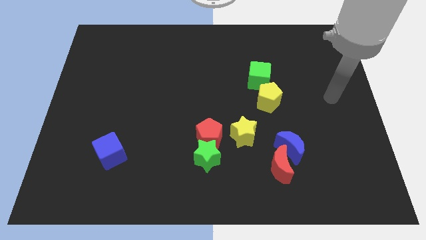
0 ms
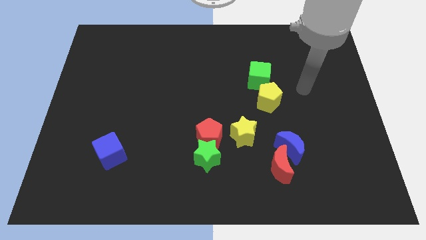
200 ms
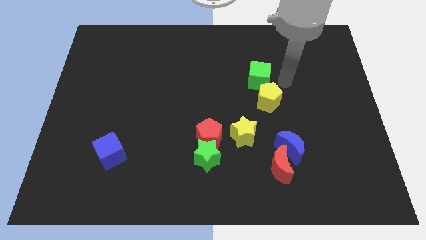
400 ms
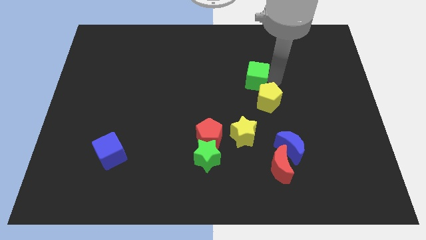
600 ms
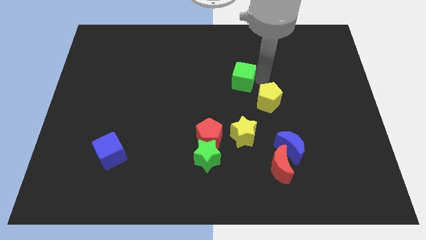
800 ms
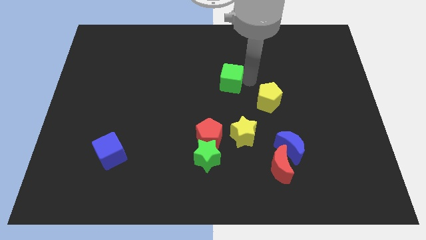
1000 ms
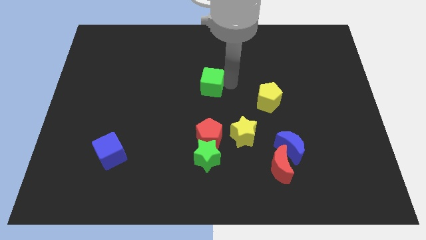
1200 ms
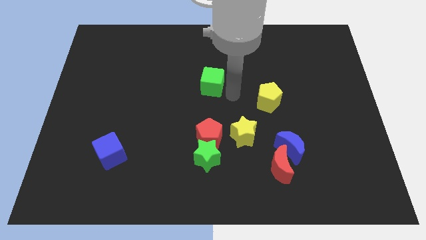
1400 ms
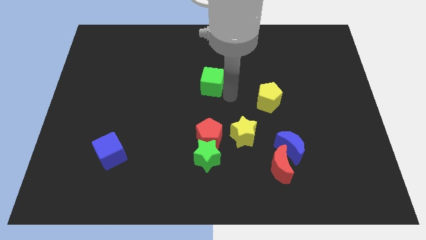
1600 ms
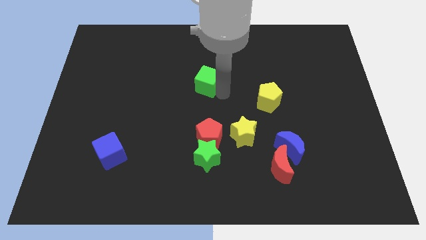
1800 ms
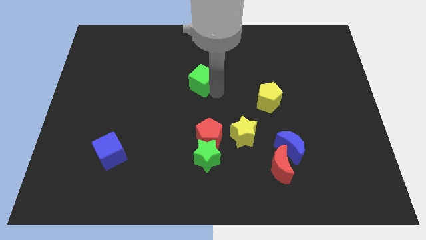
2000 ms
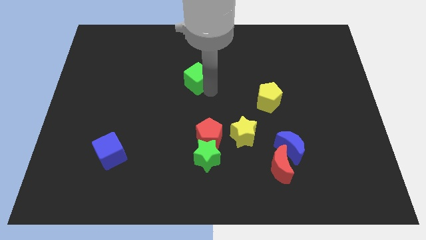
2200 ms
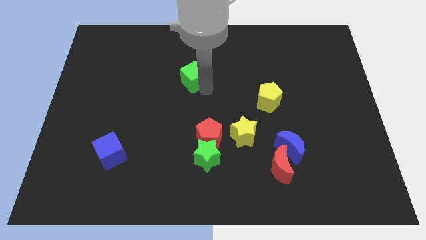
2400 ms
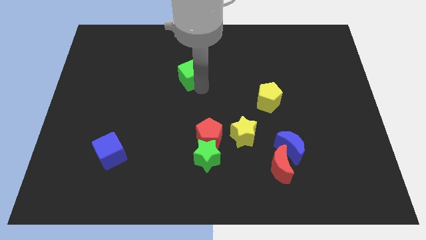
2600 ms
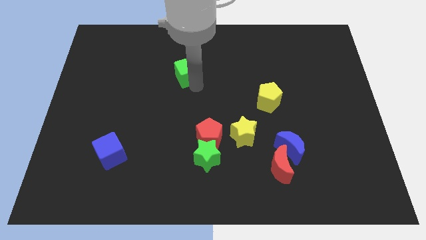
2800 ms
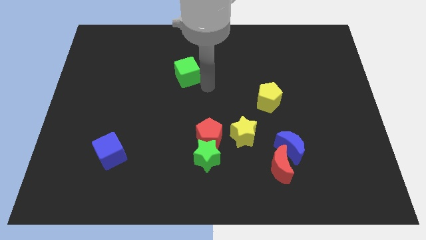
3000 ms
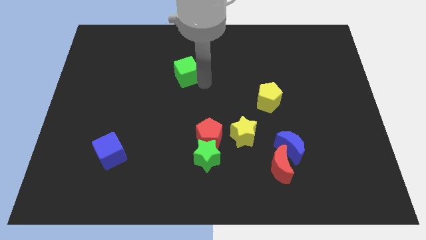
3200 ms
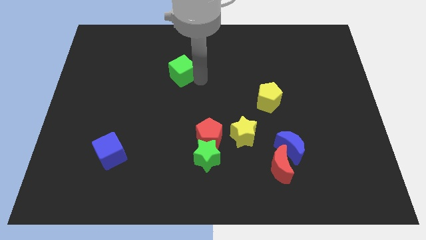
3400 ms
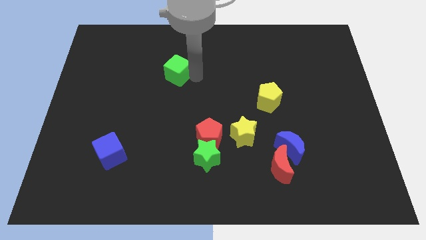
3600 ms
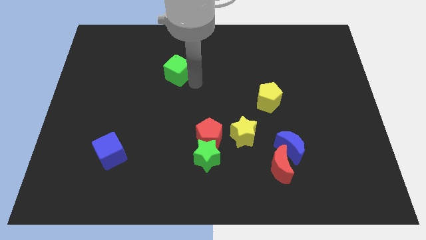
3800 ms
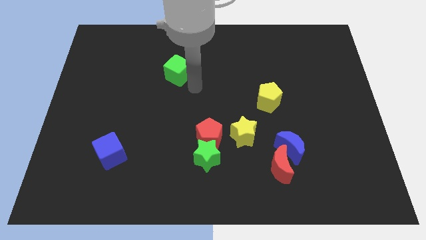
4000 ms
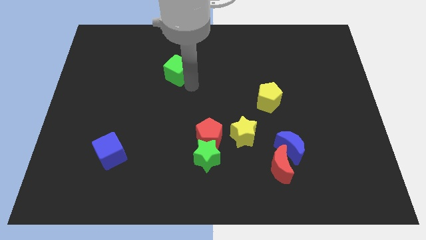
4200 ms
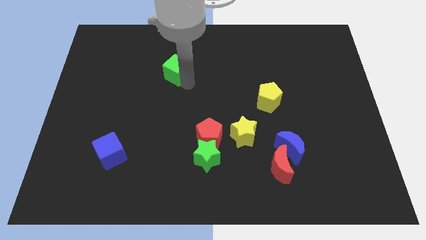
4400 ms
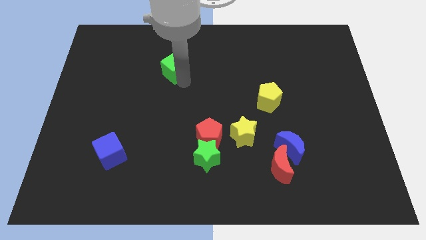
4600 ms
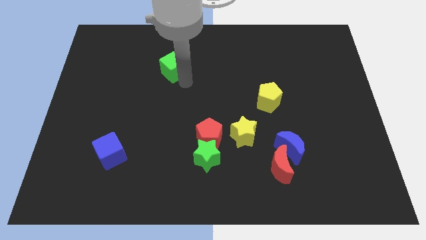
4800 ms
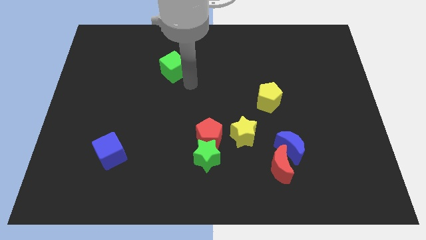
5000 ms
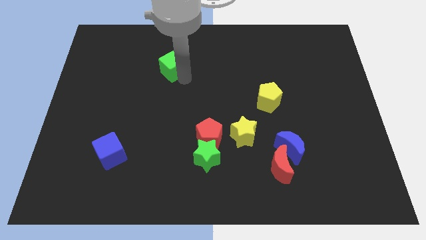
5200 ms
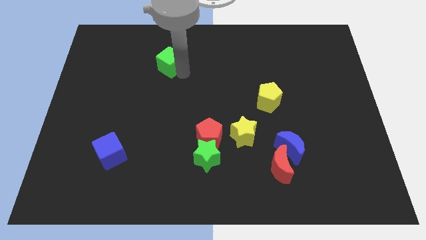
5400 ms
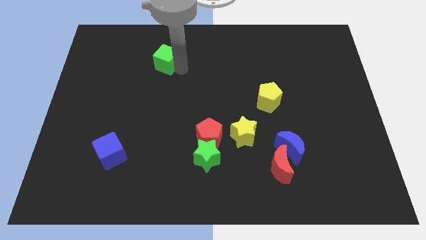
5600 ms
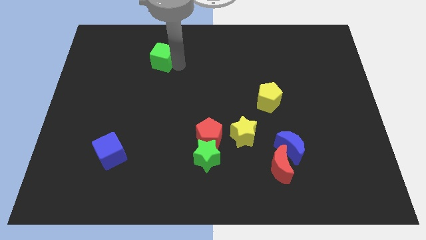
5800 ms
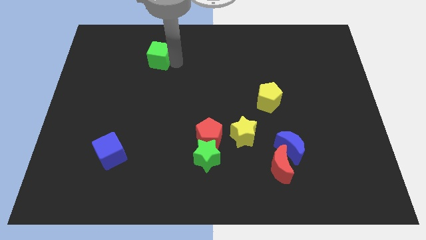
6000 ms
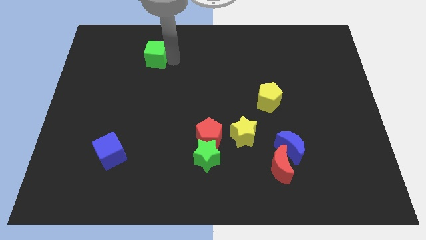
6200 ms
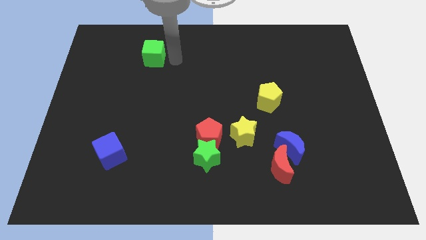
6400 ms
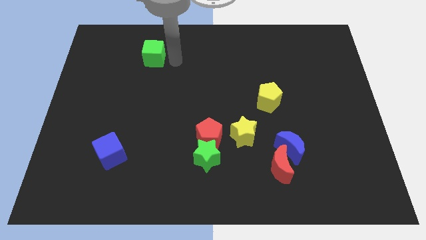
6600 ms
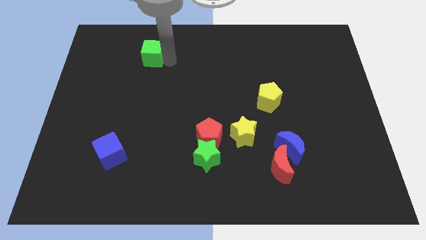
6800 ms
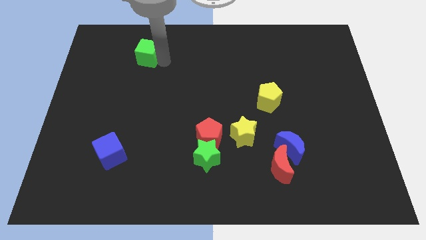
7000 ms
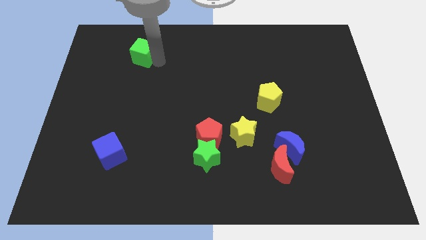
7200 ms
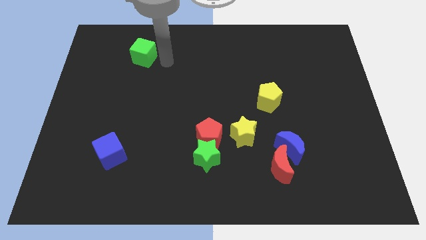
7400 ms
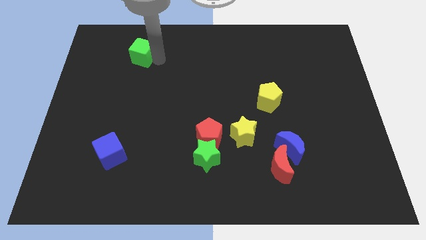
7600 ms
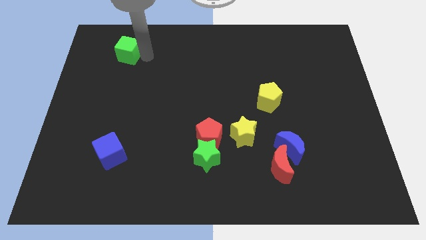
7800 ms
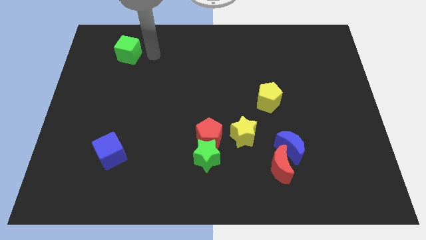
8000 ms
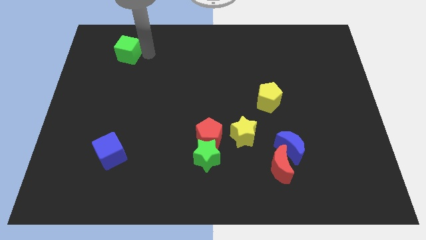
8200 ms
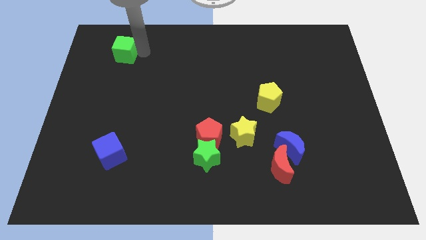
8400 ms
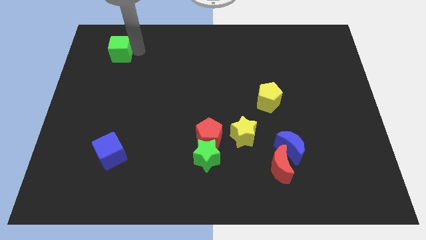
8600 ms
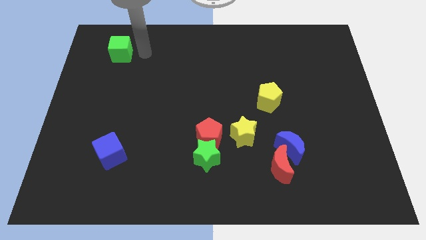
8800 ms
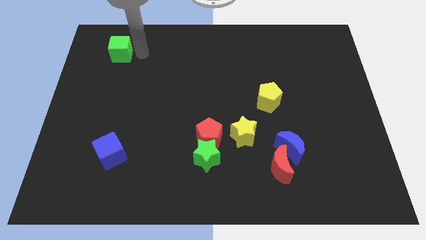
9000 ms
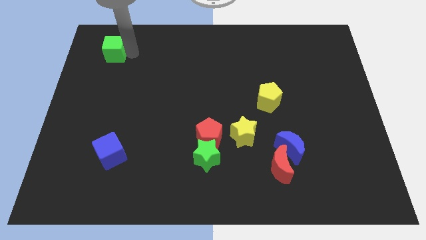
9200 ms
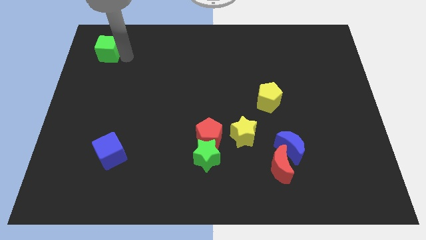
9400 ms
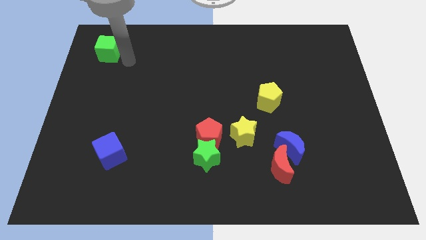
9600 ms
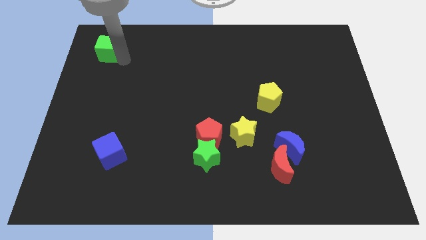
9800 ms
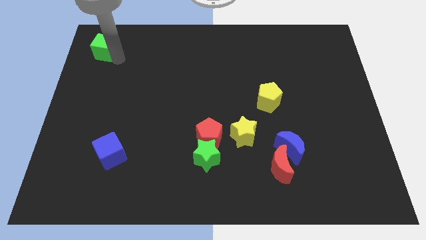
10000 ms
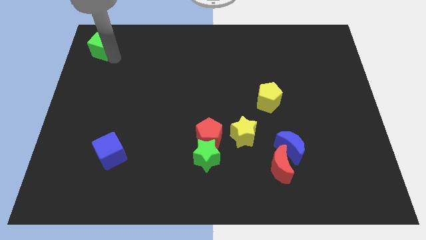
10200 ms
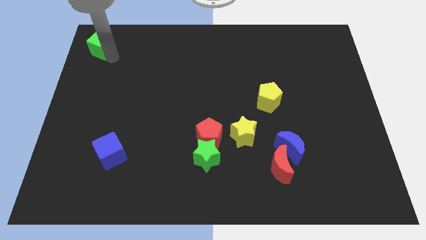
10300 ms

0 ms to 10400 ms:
put the green cube to the top left of the board

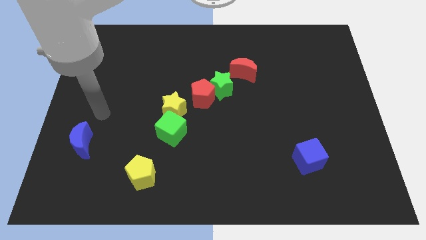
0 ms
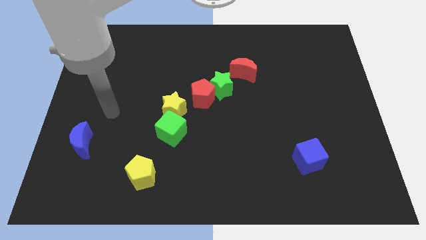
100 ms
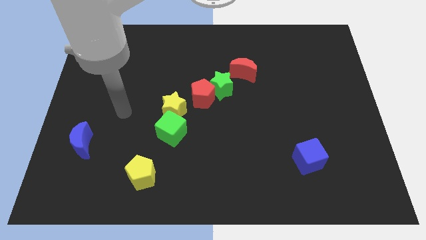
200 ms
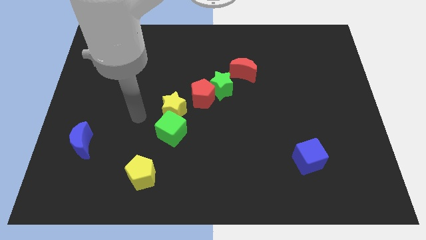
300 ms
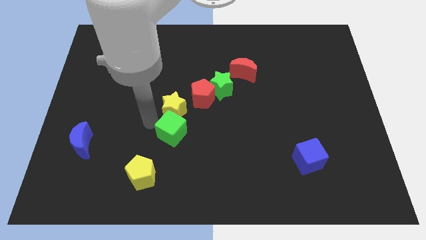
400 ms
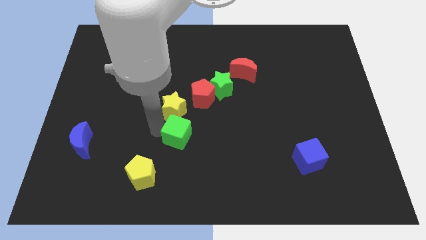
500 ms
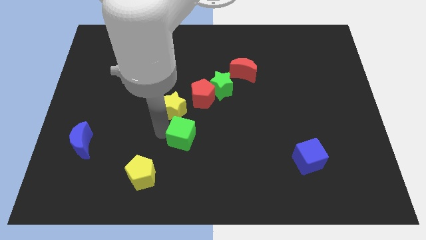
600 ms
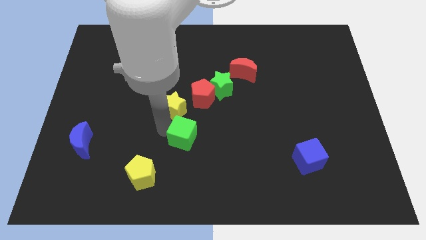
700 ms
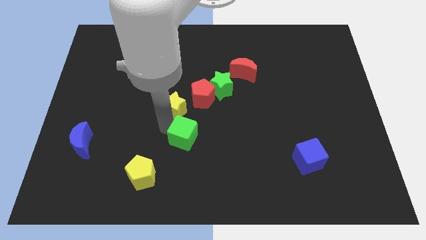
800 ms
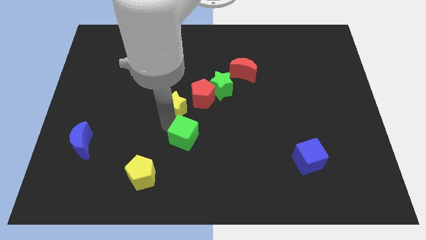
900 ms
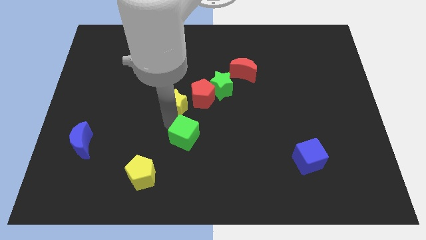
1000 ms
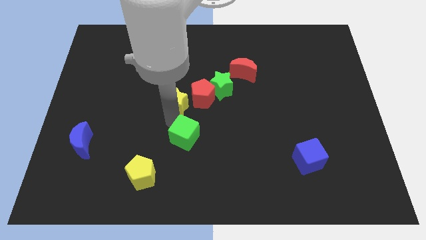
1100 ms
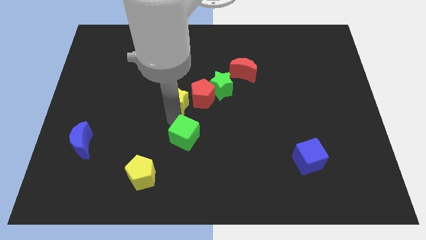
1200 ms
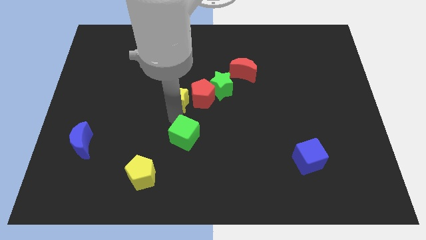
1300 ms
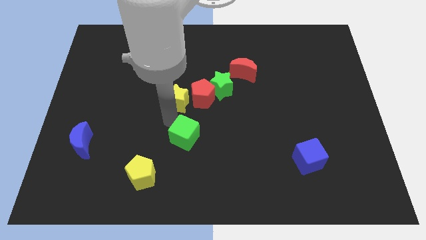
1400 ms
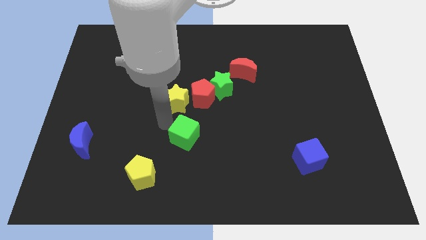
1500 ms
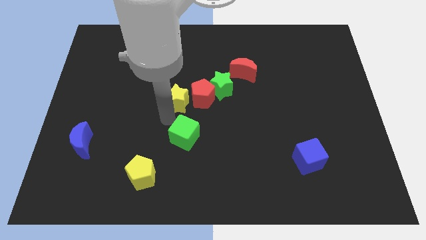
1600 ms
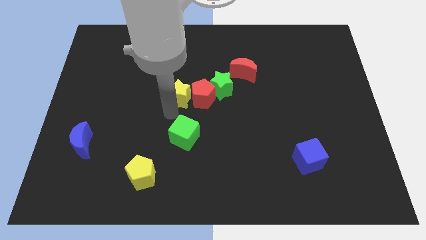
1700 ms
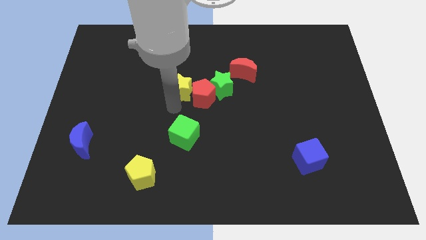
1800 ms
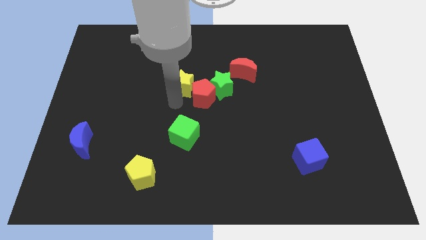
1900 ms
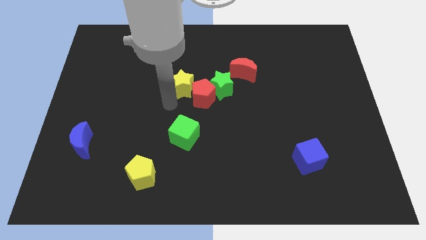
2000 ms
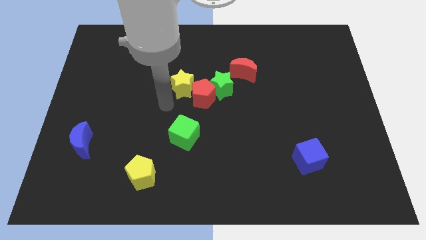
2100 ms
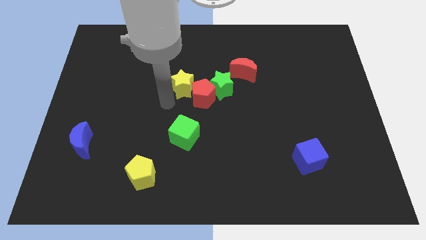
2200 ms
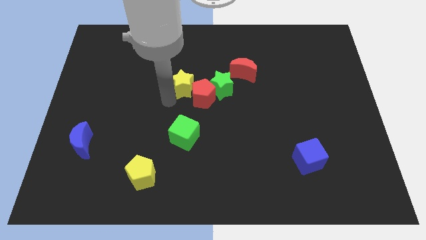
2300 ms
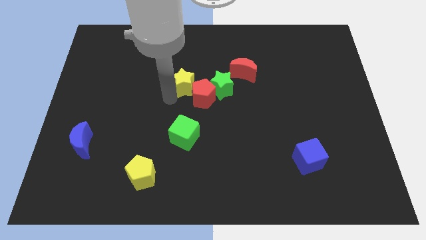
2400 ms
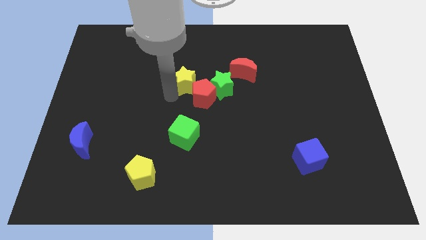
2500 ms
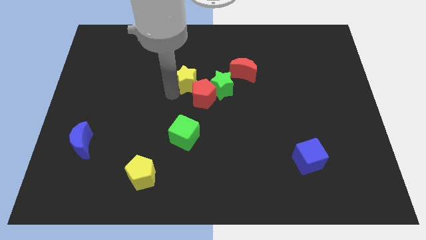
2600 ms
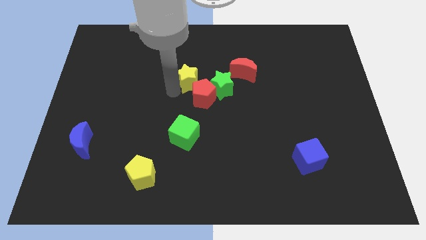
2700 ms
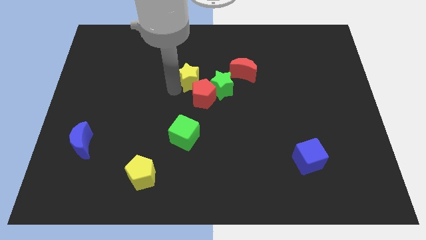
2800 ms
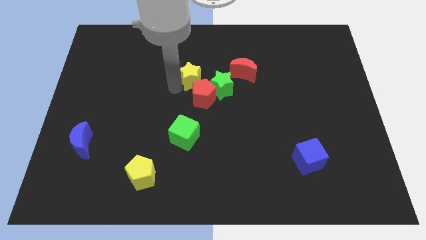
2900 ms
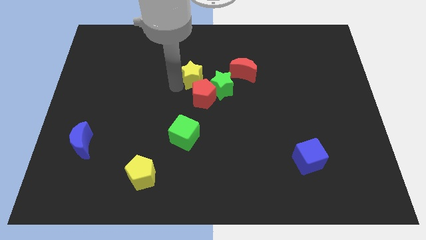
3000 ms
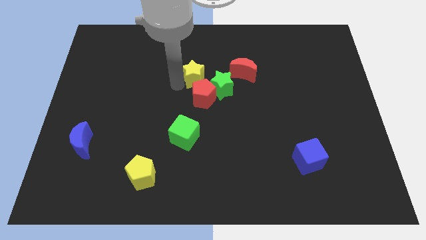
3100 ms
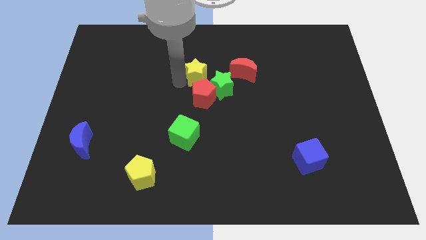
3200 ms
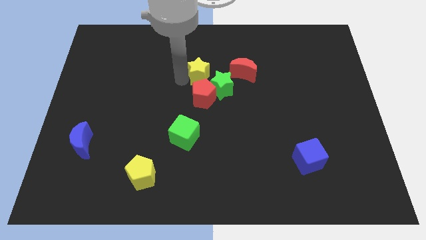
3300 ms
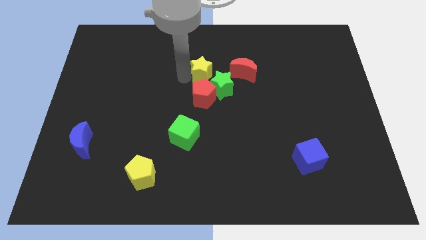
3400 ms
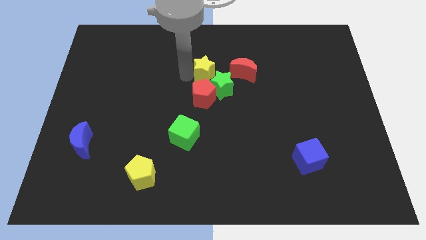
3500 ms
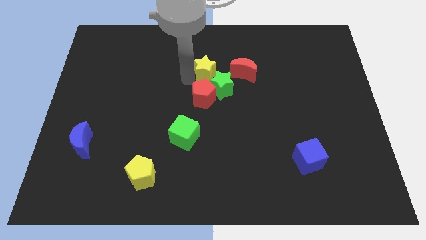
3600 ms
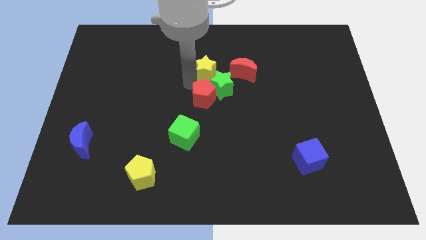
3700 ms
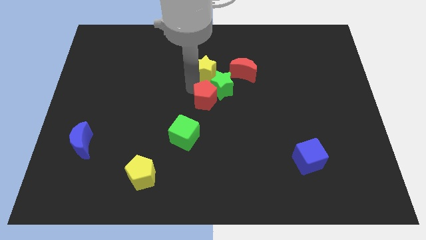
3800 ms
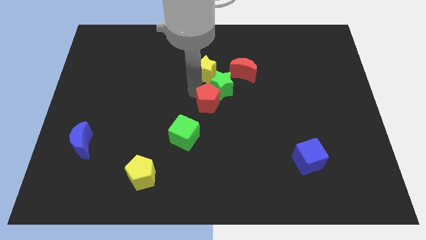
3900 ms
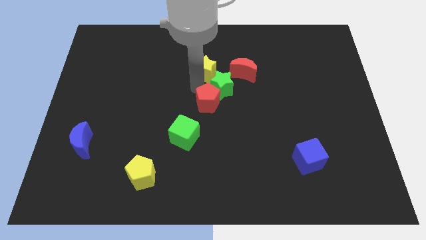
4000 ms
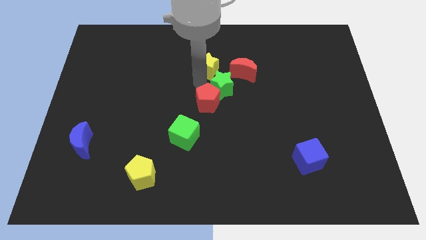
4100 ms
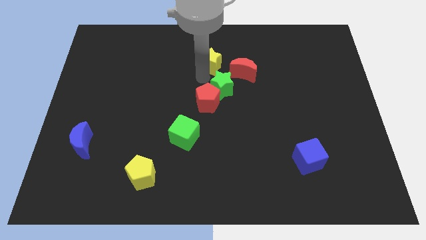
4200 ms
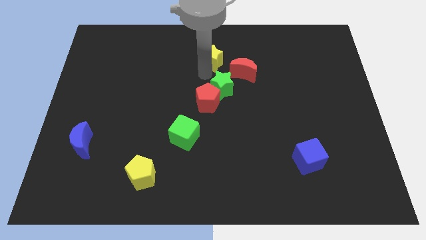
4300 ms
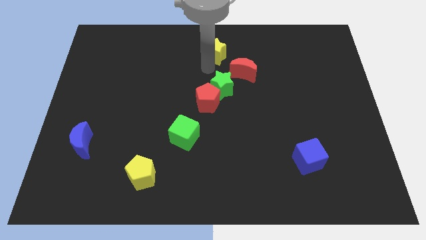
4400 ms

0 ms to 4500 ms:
move the yellow star to the top side
